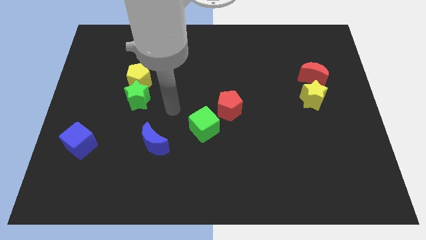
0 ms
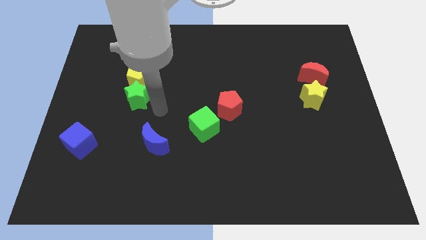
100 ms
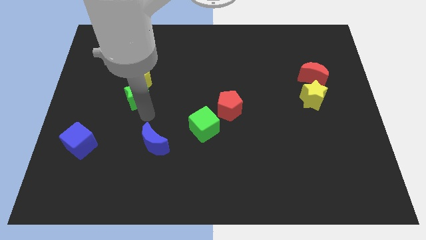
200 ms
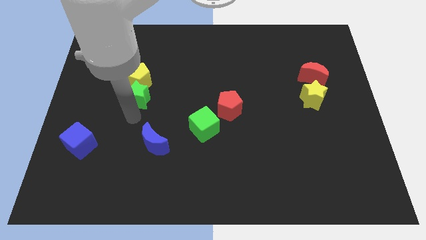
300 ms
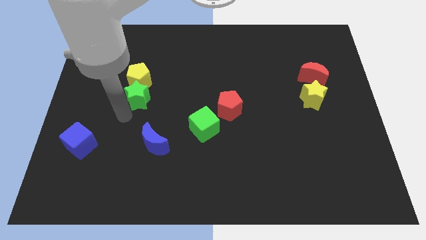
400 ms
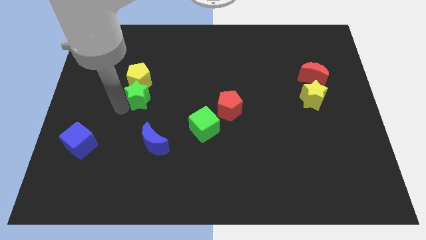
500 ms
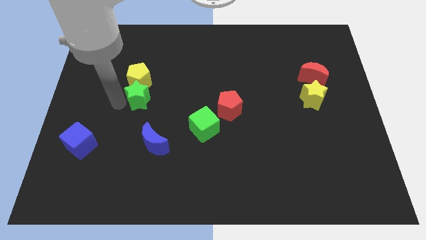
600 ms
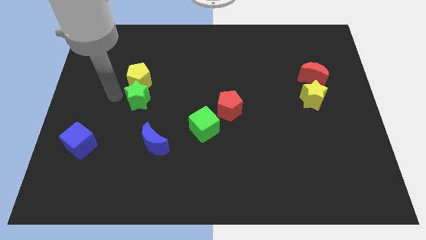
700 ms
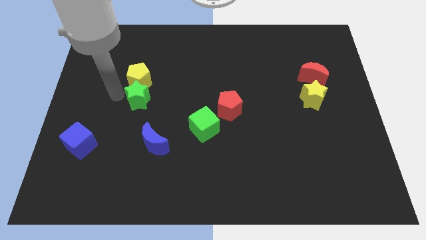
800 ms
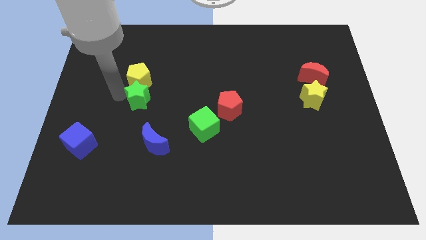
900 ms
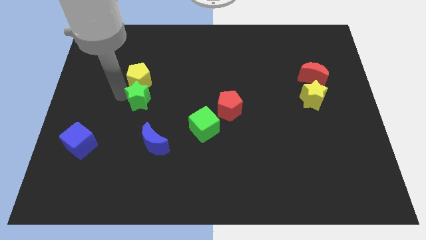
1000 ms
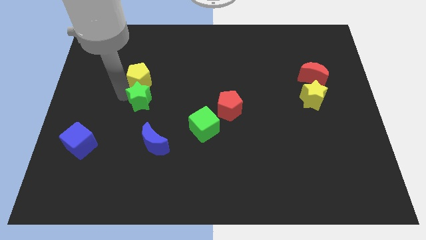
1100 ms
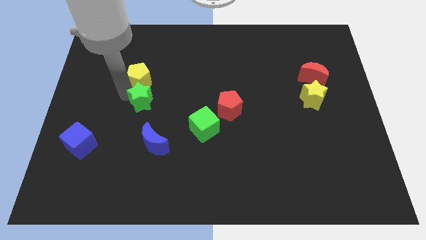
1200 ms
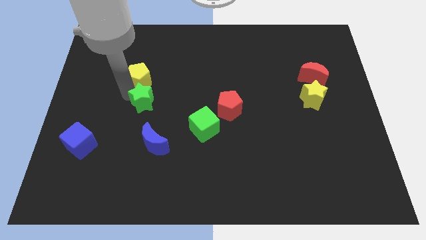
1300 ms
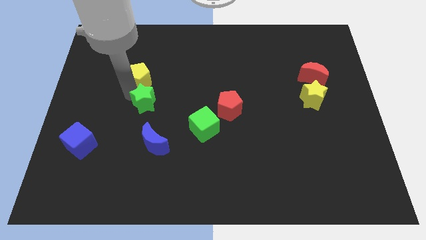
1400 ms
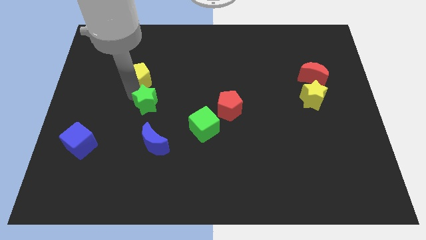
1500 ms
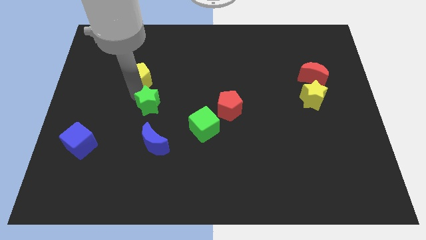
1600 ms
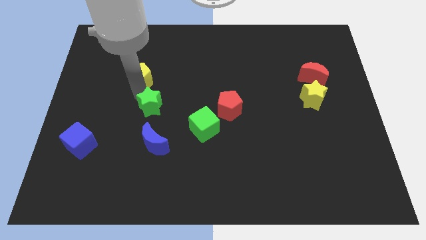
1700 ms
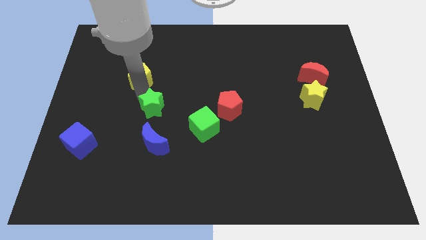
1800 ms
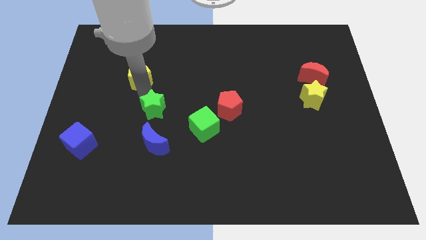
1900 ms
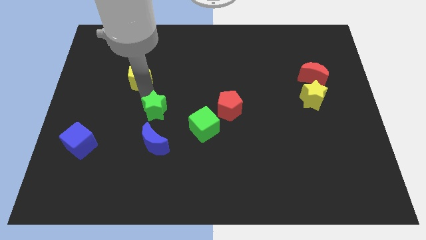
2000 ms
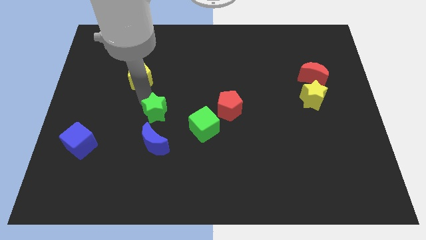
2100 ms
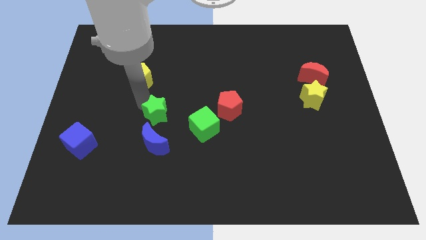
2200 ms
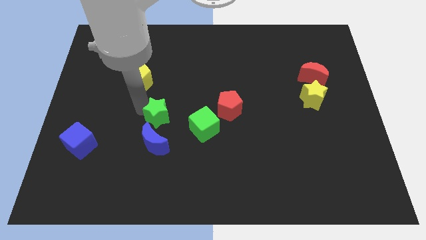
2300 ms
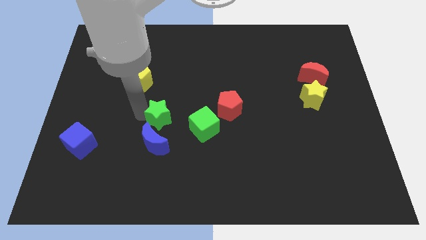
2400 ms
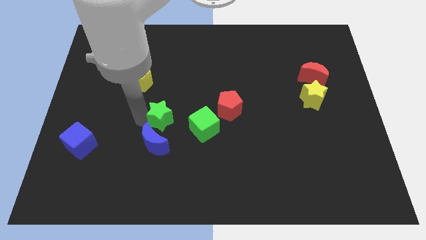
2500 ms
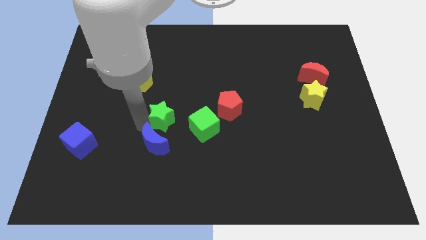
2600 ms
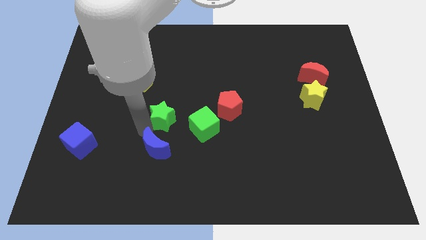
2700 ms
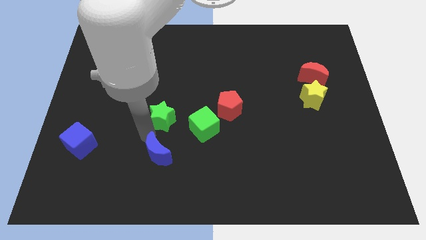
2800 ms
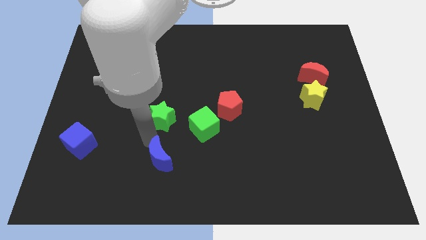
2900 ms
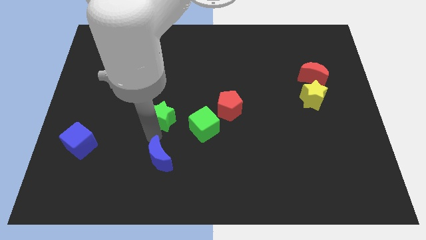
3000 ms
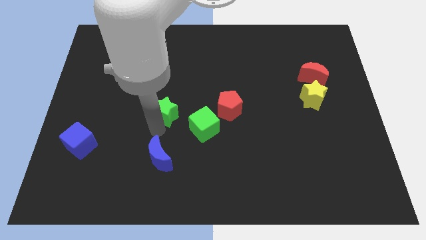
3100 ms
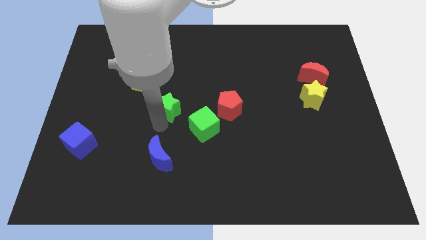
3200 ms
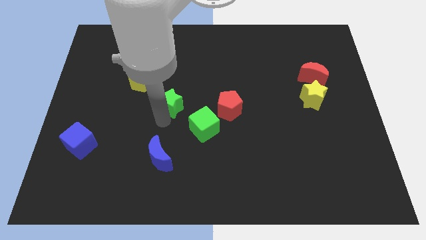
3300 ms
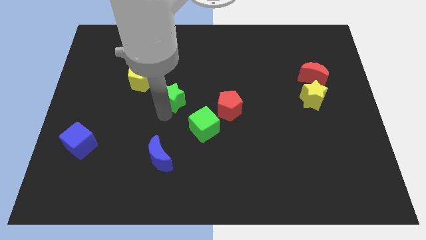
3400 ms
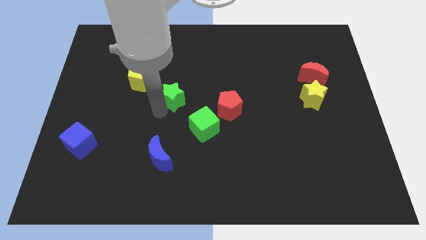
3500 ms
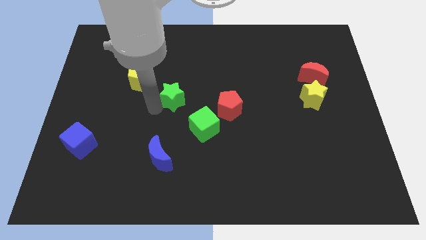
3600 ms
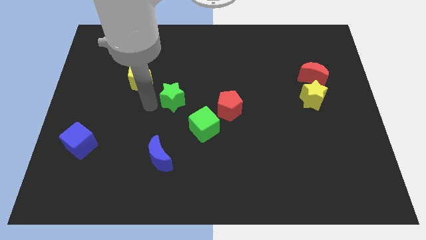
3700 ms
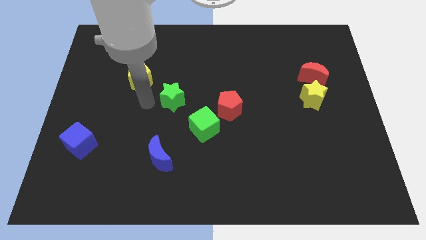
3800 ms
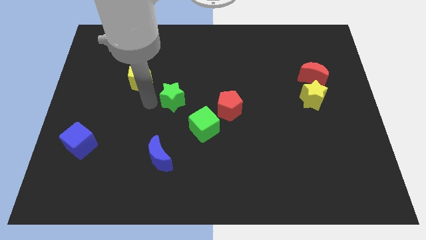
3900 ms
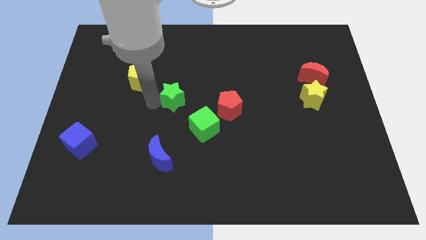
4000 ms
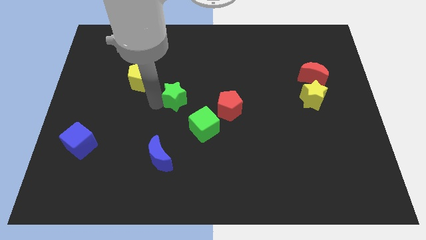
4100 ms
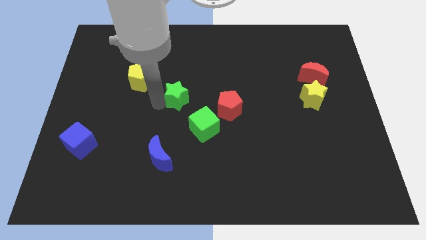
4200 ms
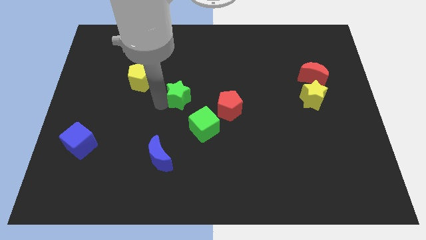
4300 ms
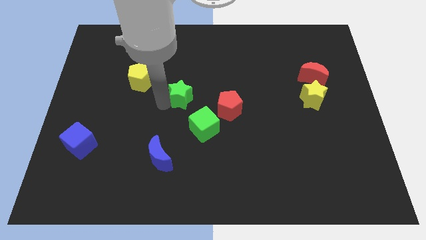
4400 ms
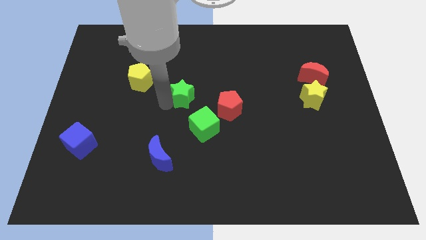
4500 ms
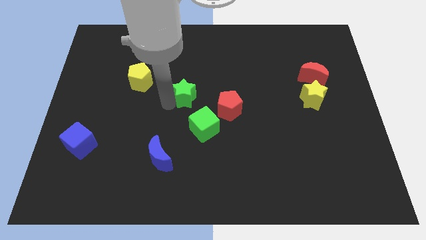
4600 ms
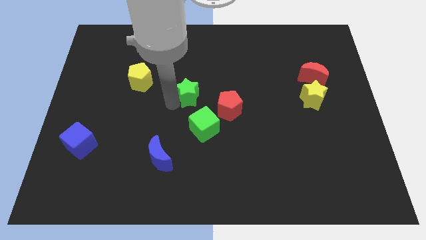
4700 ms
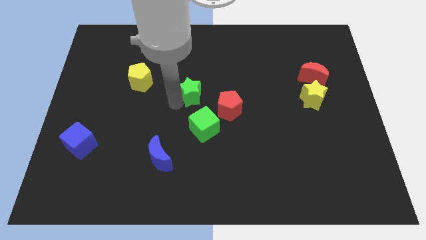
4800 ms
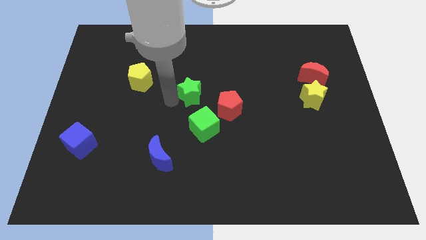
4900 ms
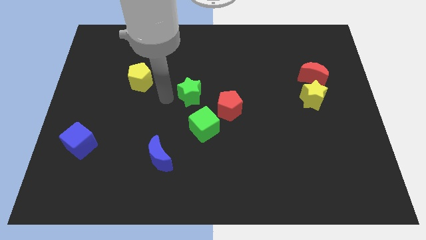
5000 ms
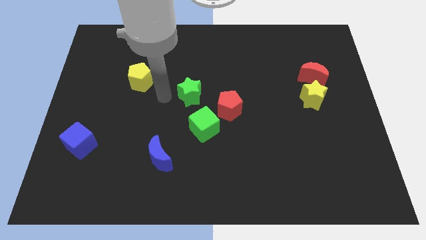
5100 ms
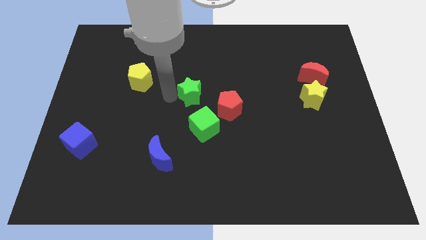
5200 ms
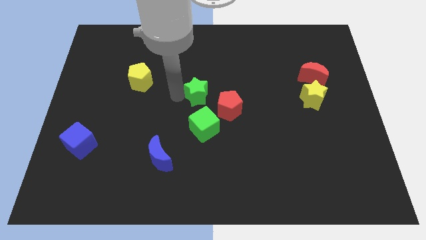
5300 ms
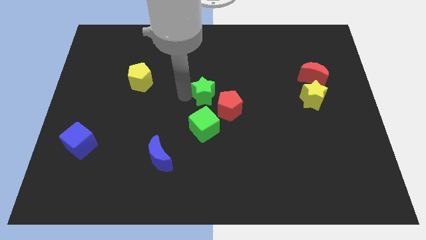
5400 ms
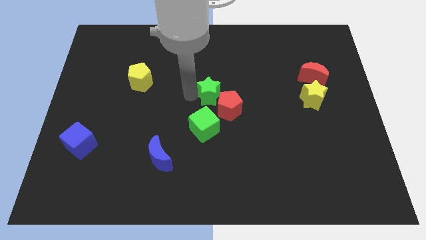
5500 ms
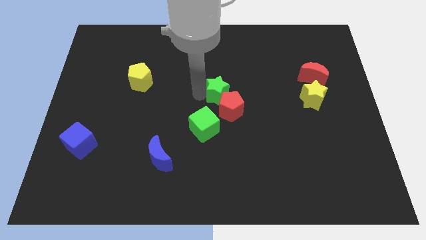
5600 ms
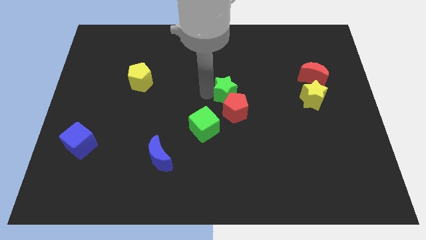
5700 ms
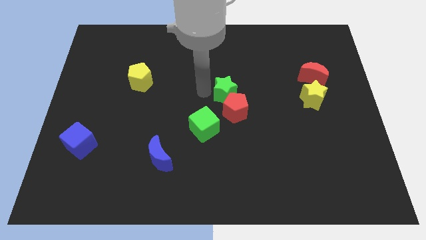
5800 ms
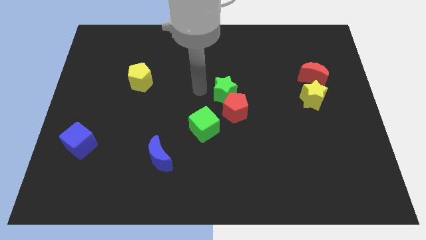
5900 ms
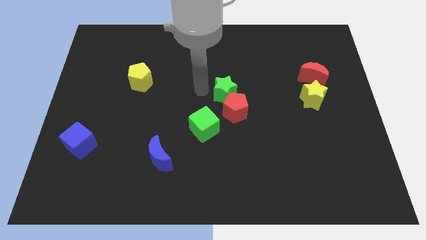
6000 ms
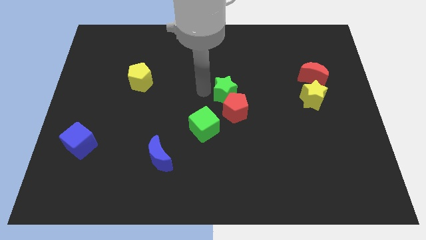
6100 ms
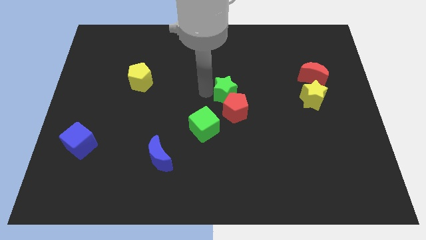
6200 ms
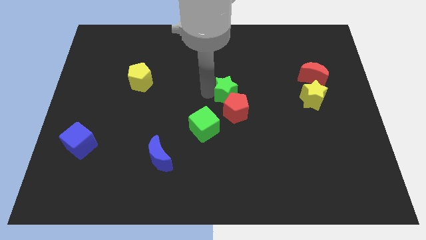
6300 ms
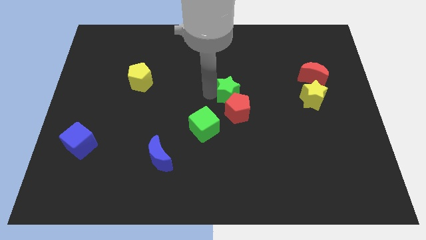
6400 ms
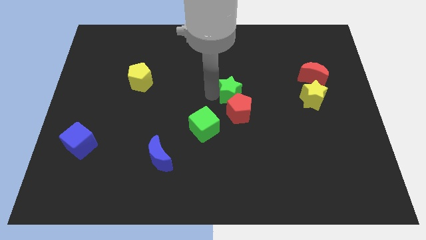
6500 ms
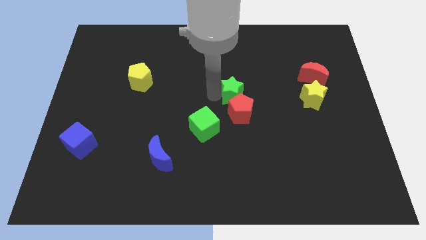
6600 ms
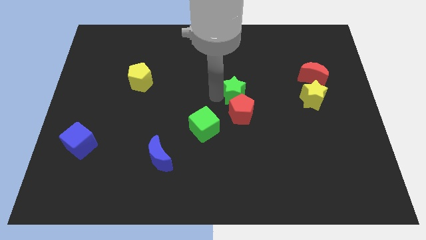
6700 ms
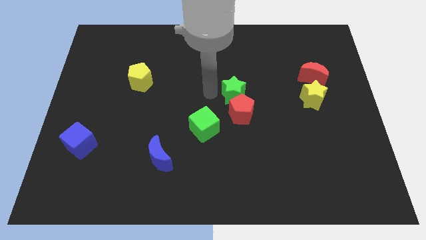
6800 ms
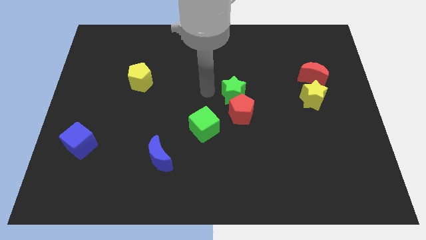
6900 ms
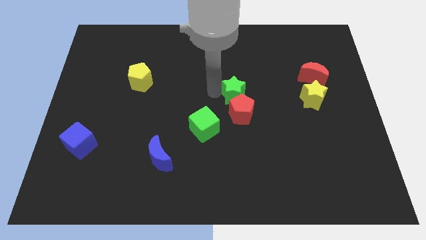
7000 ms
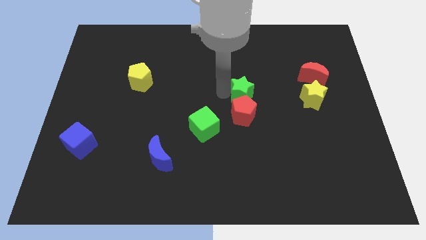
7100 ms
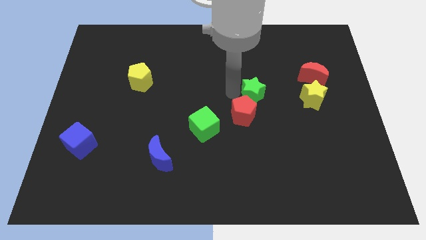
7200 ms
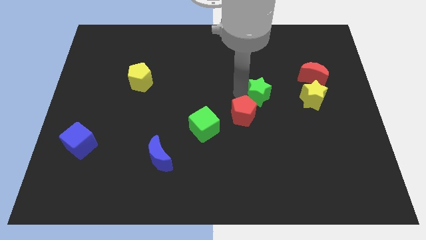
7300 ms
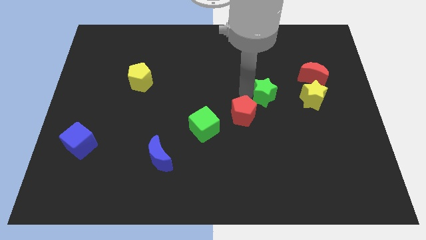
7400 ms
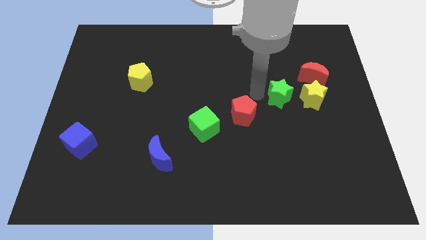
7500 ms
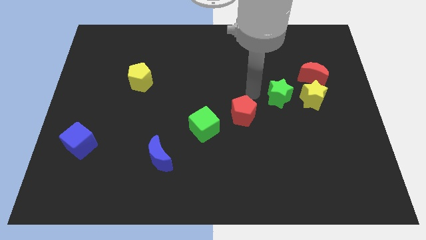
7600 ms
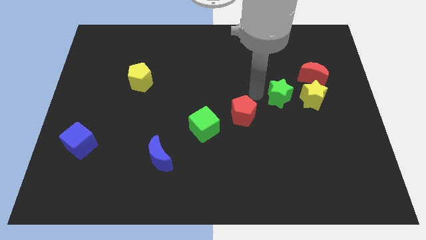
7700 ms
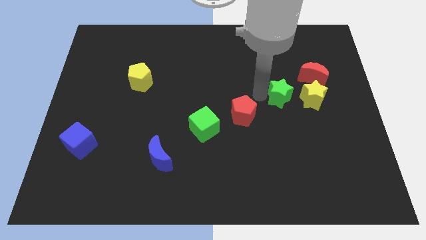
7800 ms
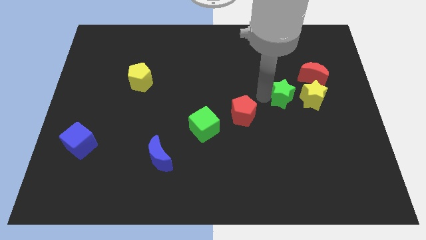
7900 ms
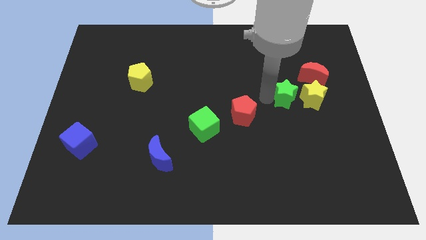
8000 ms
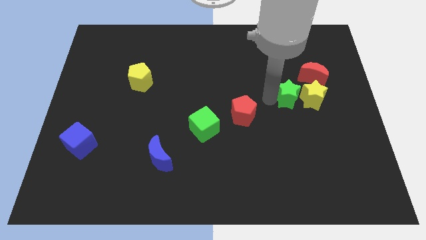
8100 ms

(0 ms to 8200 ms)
push the green star towards the yellow star
